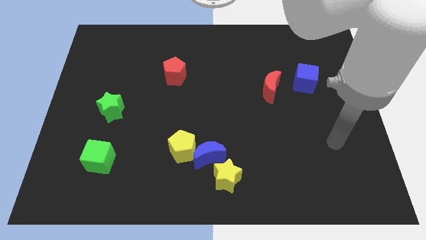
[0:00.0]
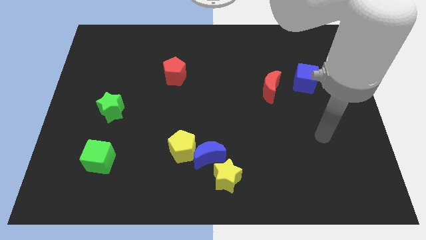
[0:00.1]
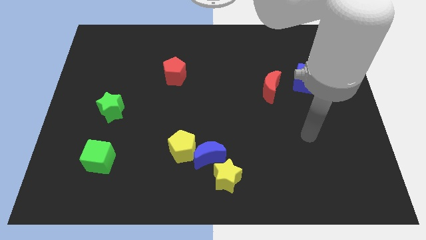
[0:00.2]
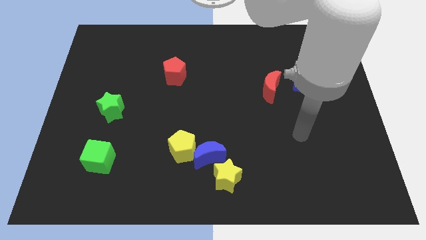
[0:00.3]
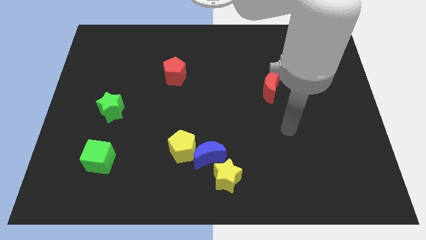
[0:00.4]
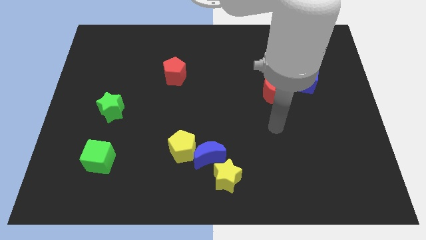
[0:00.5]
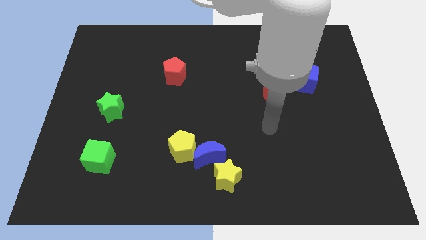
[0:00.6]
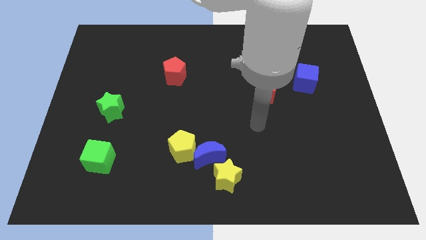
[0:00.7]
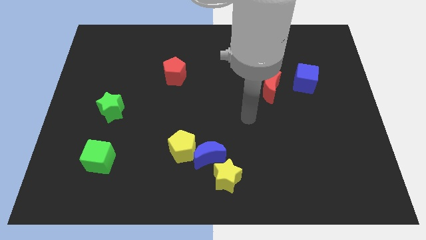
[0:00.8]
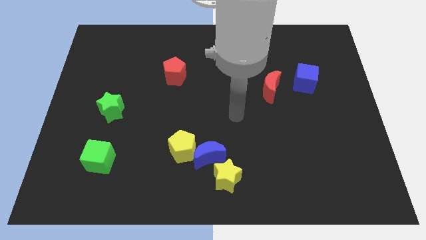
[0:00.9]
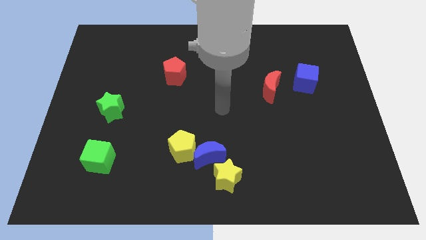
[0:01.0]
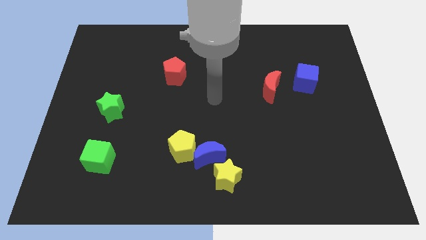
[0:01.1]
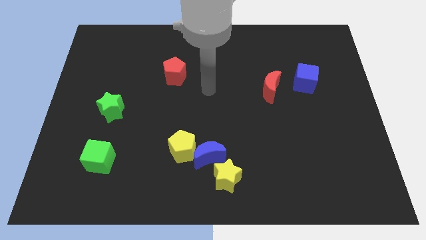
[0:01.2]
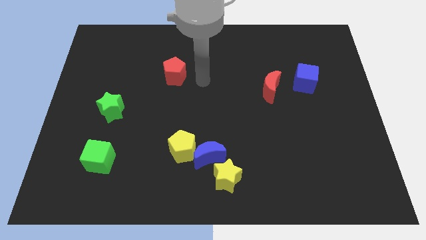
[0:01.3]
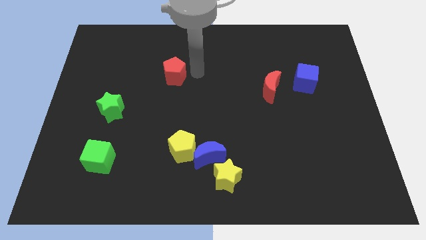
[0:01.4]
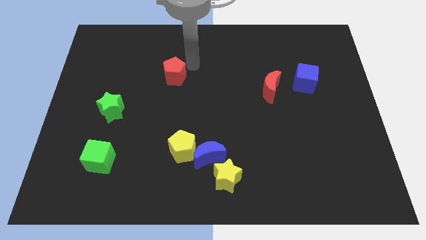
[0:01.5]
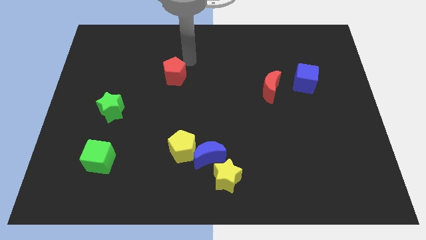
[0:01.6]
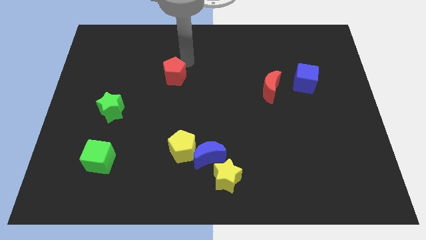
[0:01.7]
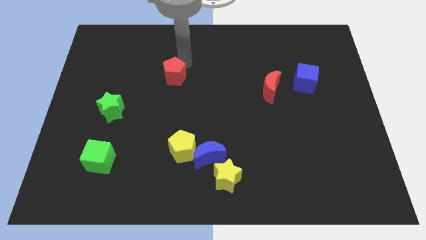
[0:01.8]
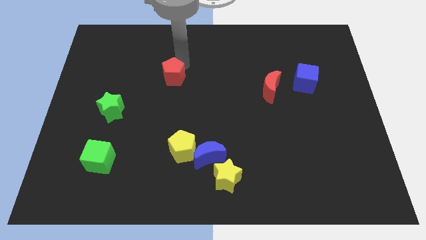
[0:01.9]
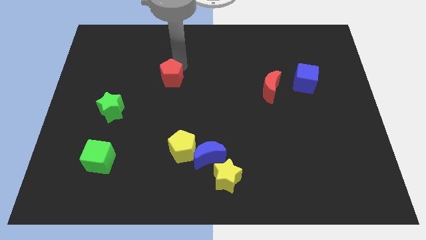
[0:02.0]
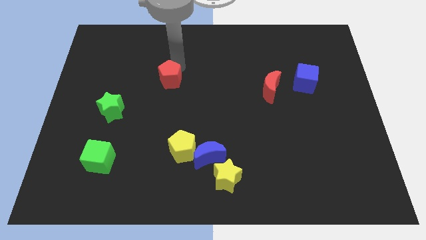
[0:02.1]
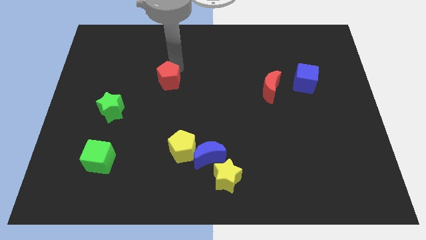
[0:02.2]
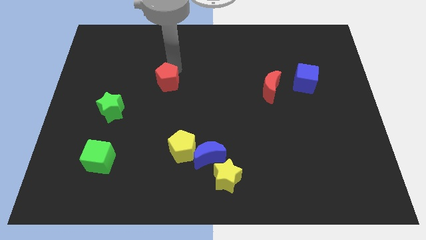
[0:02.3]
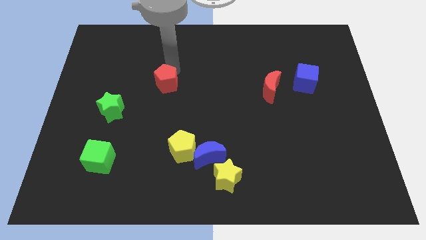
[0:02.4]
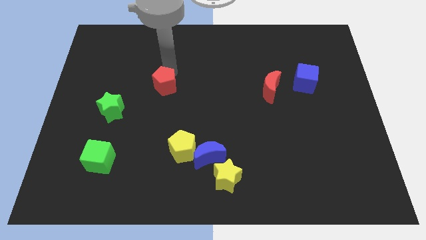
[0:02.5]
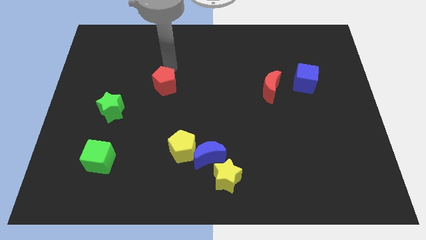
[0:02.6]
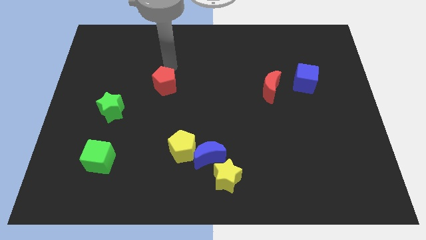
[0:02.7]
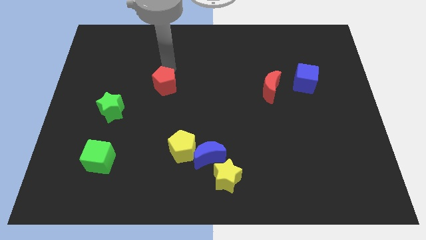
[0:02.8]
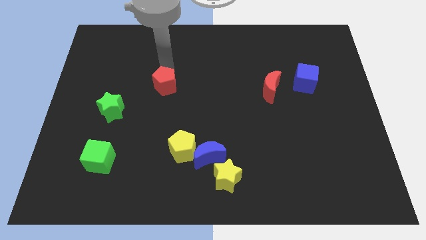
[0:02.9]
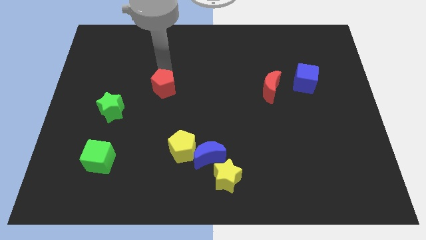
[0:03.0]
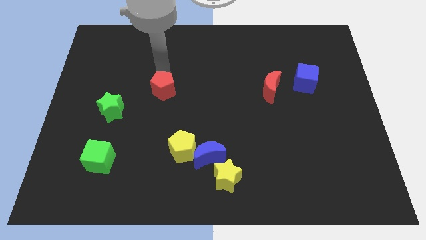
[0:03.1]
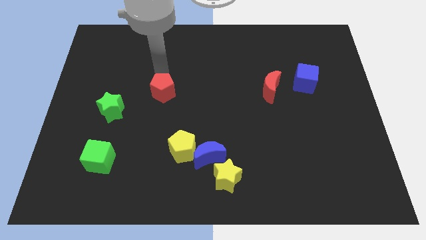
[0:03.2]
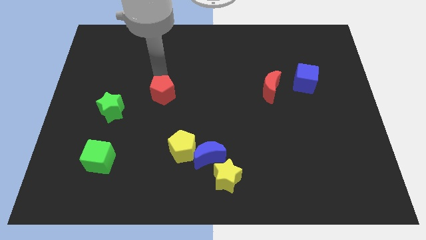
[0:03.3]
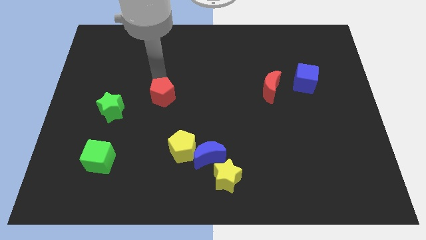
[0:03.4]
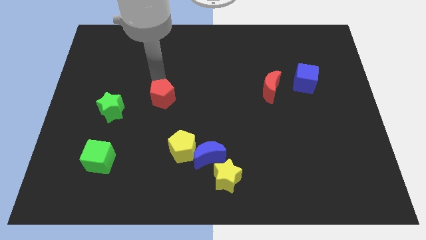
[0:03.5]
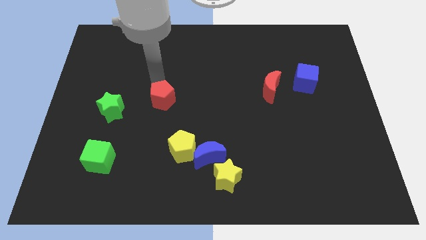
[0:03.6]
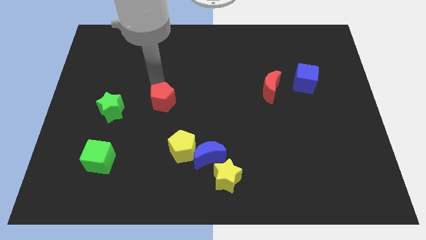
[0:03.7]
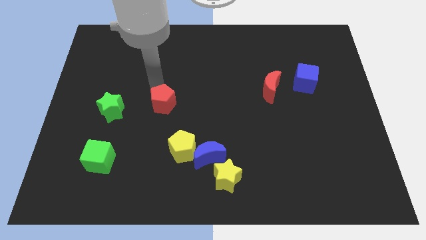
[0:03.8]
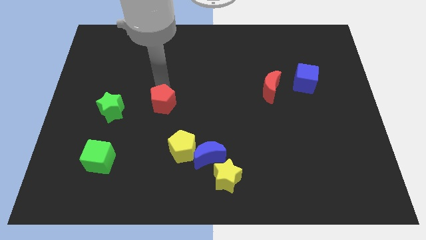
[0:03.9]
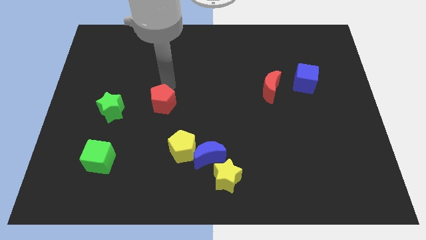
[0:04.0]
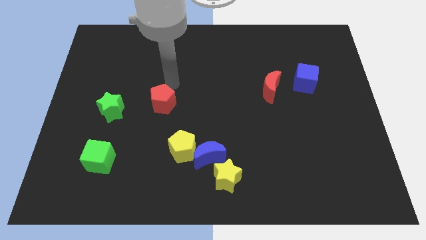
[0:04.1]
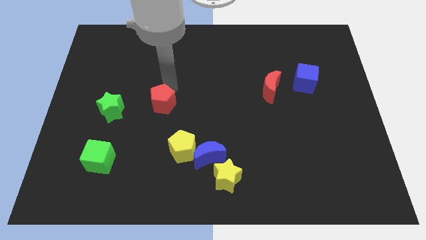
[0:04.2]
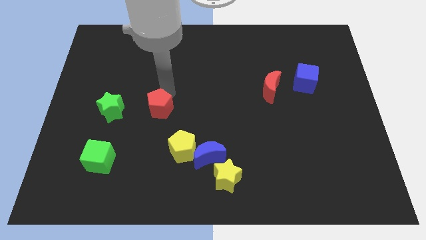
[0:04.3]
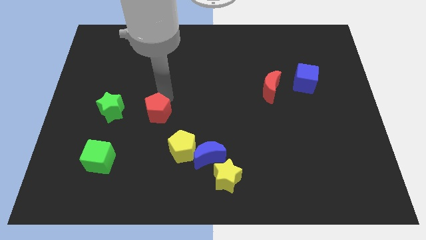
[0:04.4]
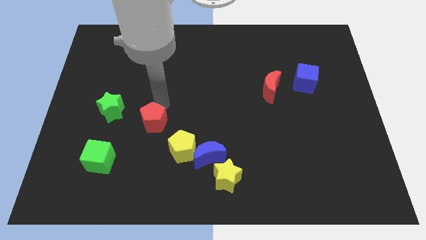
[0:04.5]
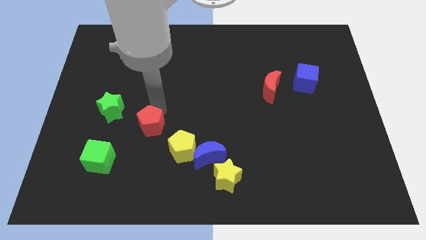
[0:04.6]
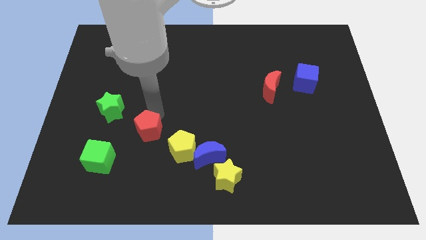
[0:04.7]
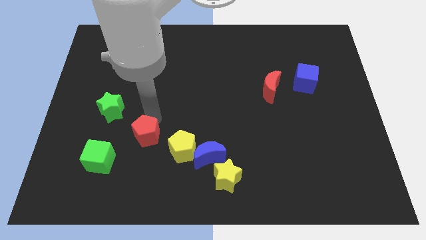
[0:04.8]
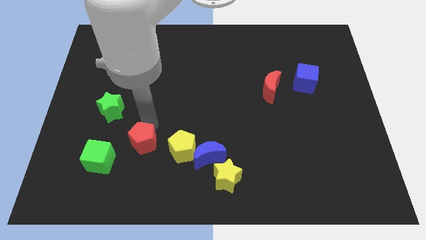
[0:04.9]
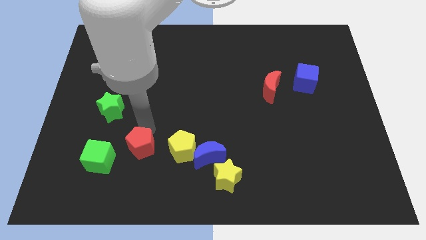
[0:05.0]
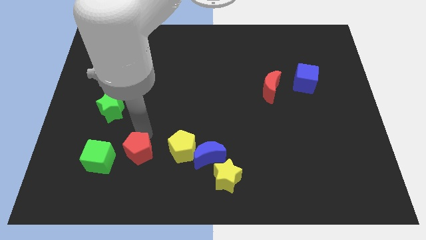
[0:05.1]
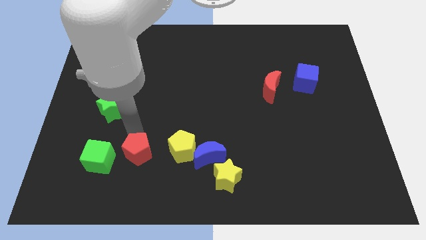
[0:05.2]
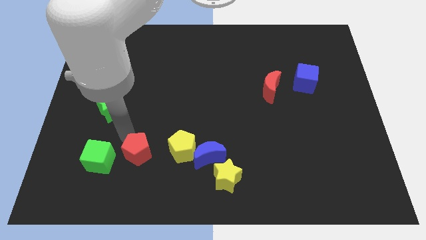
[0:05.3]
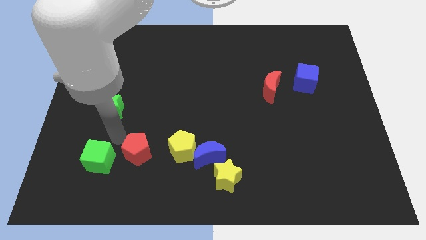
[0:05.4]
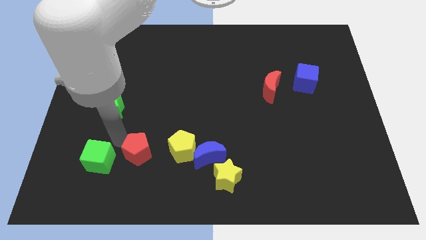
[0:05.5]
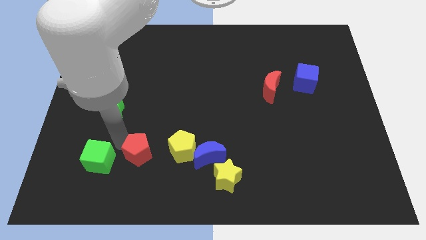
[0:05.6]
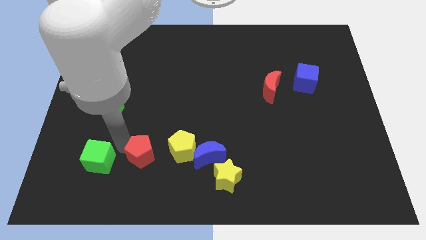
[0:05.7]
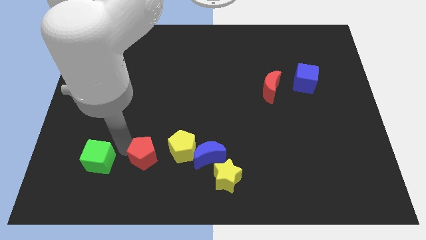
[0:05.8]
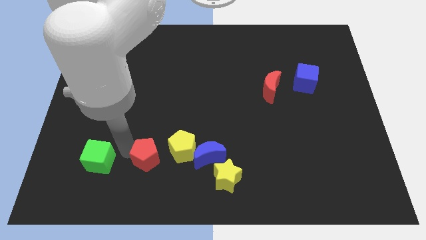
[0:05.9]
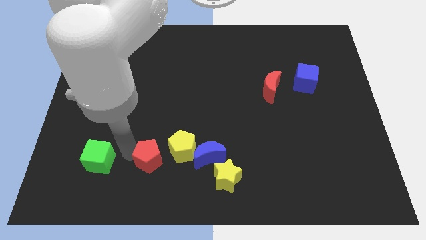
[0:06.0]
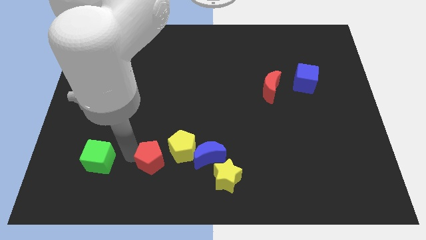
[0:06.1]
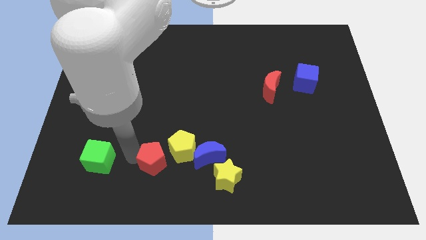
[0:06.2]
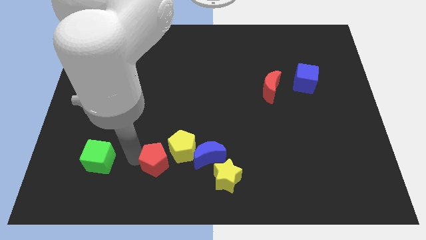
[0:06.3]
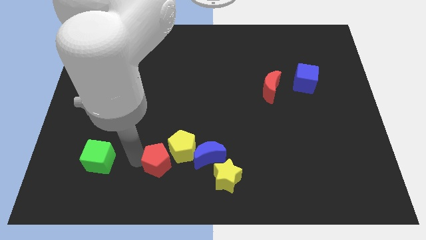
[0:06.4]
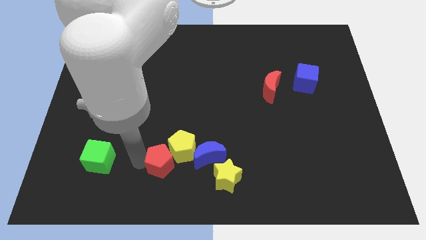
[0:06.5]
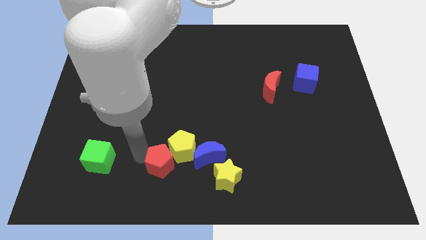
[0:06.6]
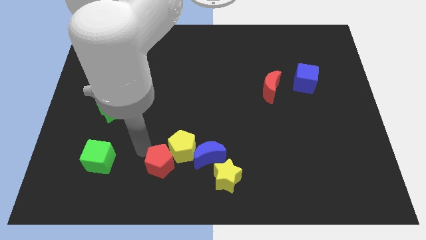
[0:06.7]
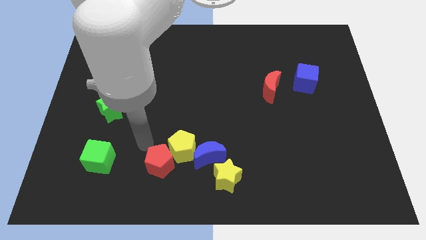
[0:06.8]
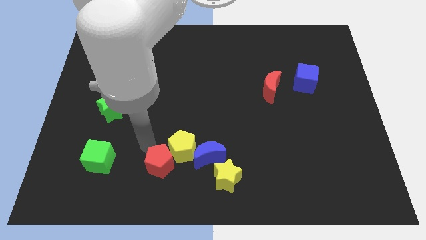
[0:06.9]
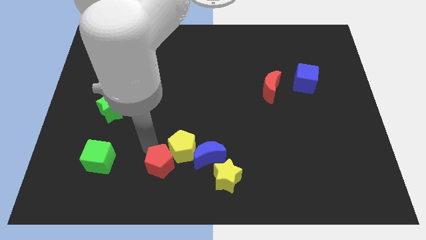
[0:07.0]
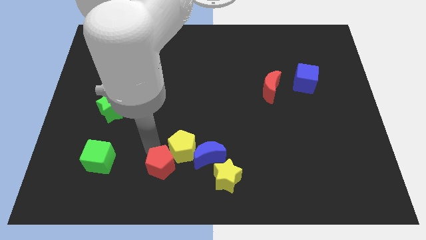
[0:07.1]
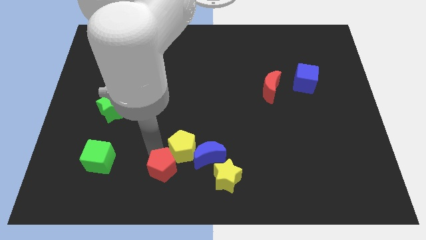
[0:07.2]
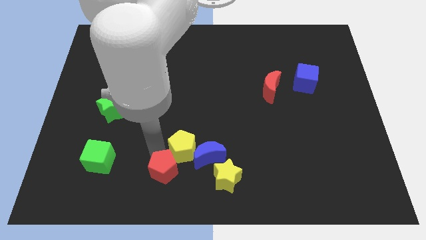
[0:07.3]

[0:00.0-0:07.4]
slide the red pentagon to the bottom
